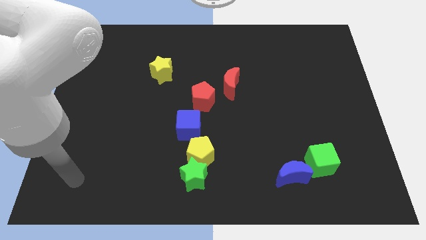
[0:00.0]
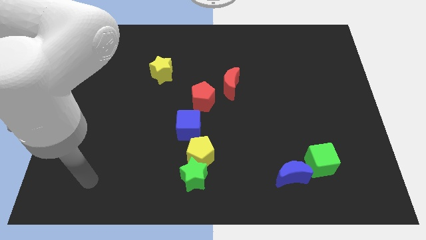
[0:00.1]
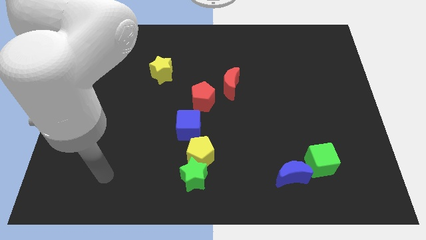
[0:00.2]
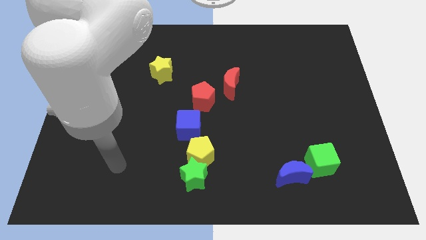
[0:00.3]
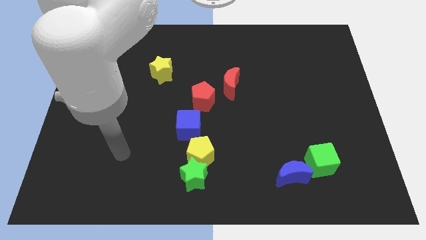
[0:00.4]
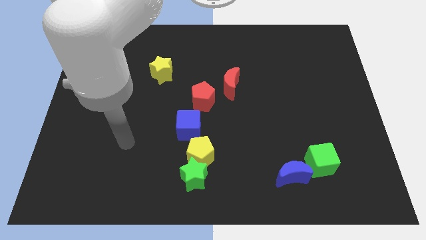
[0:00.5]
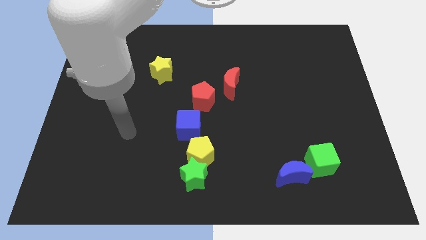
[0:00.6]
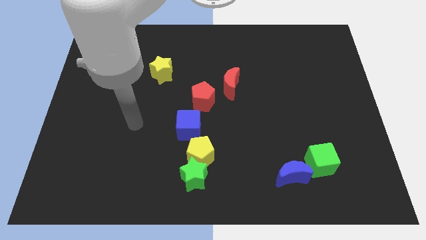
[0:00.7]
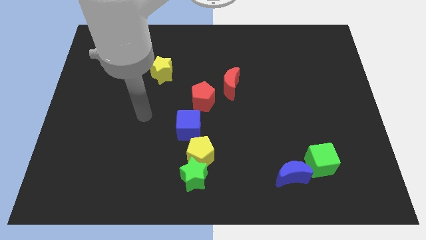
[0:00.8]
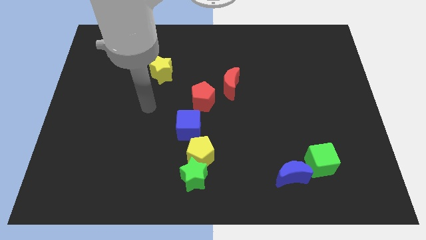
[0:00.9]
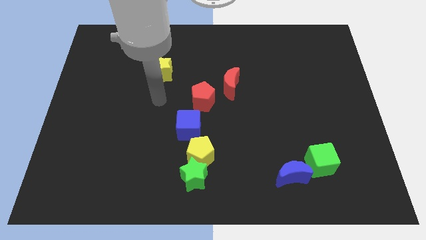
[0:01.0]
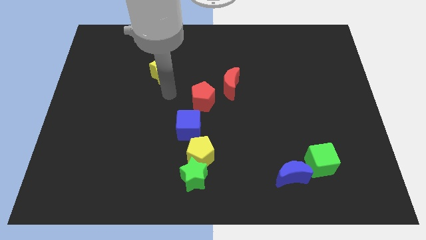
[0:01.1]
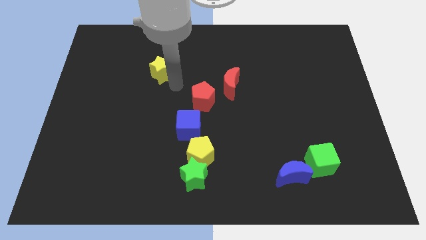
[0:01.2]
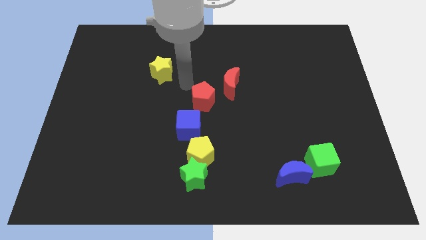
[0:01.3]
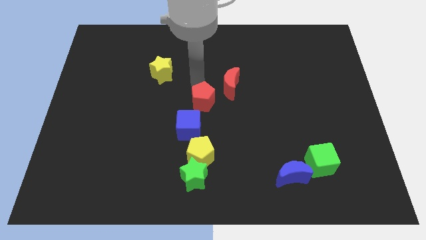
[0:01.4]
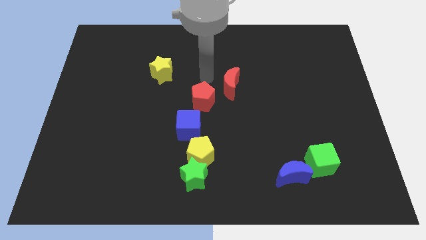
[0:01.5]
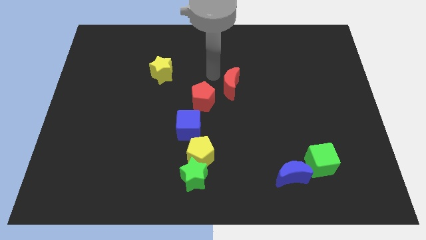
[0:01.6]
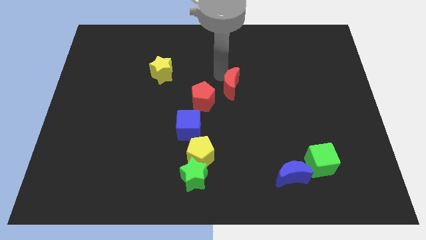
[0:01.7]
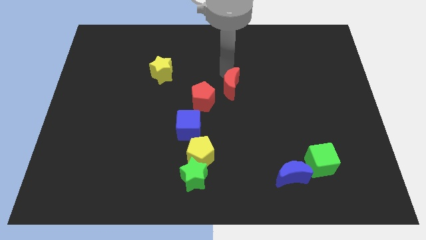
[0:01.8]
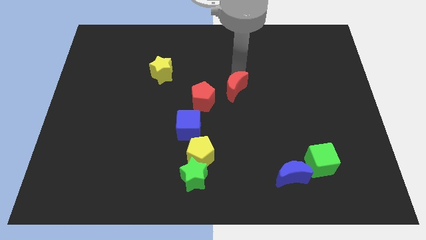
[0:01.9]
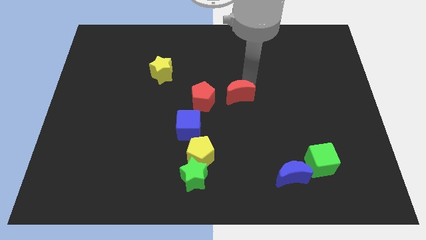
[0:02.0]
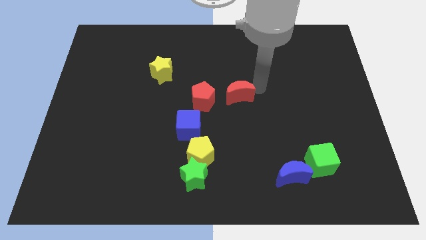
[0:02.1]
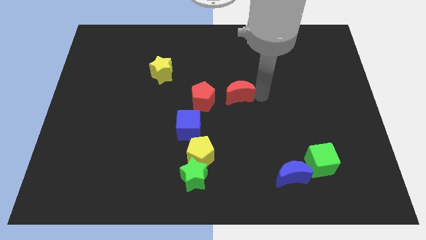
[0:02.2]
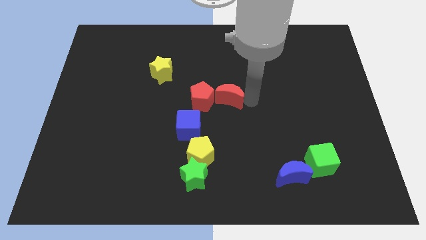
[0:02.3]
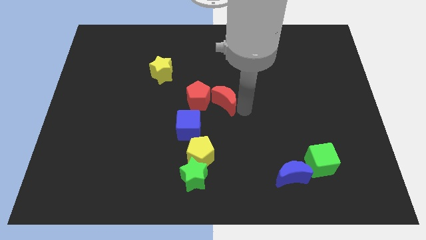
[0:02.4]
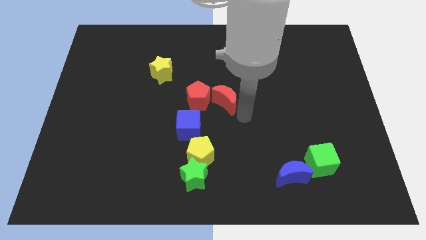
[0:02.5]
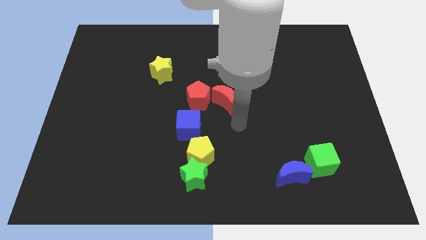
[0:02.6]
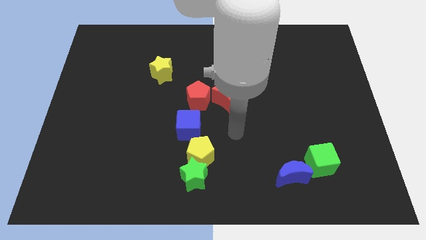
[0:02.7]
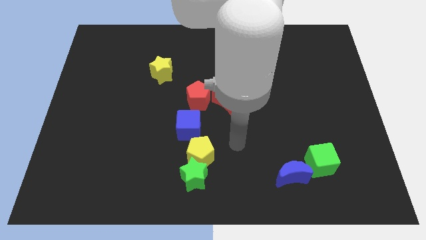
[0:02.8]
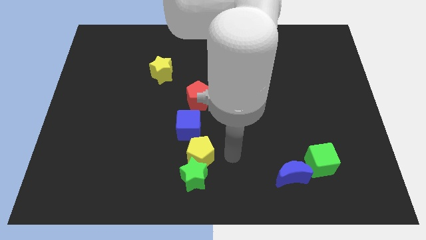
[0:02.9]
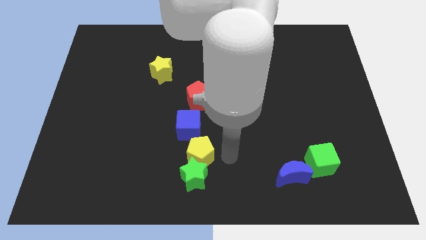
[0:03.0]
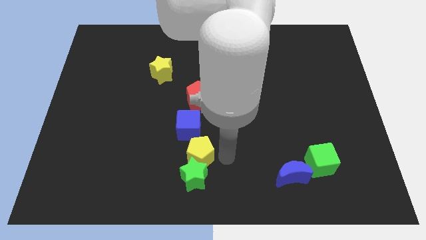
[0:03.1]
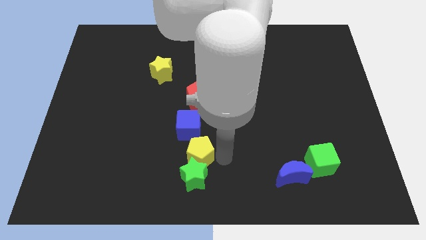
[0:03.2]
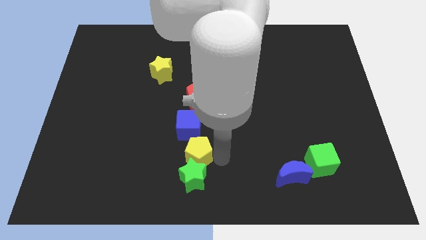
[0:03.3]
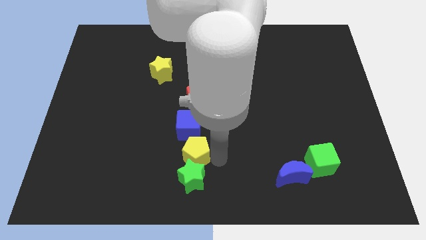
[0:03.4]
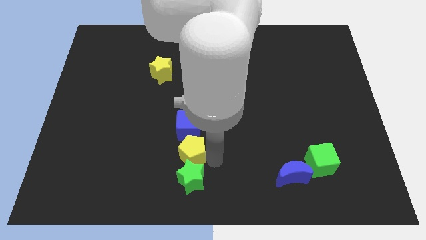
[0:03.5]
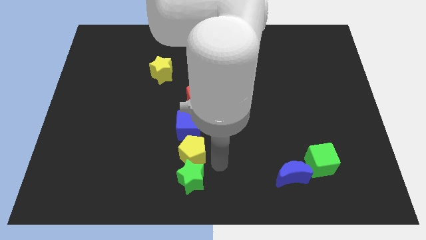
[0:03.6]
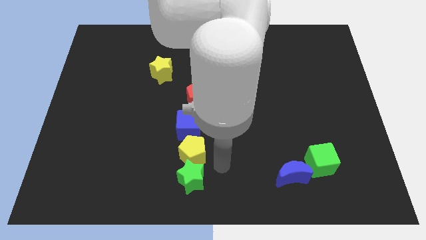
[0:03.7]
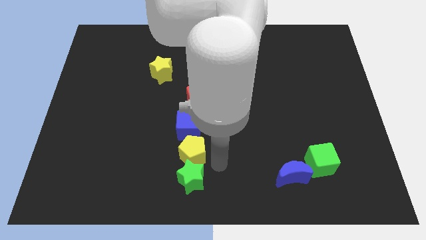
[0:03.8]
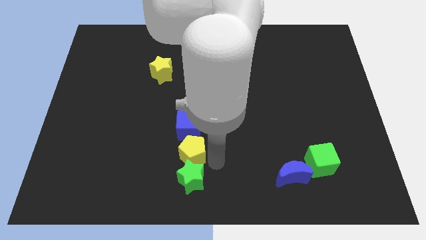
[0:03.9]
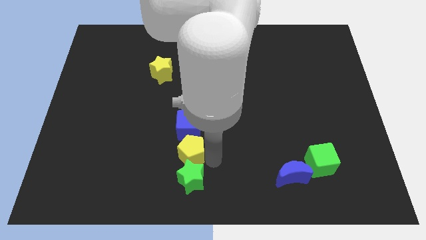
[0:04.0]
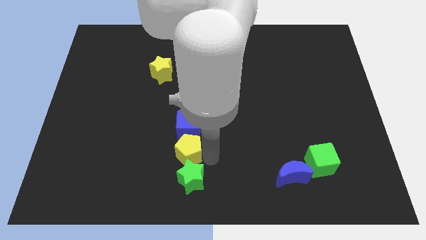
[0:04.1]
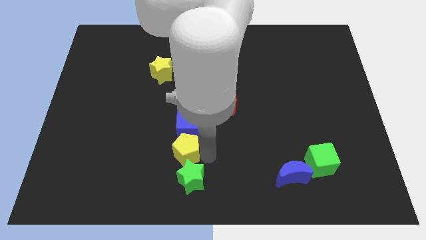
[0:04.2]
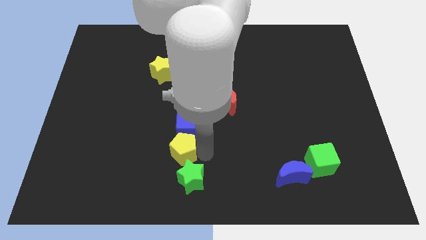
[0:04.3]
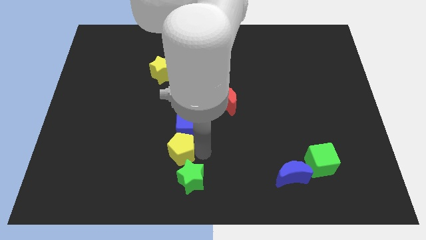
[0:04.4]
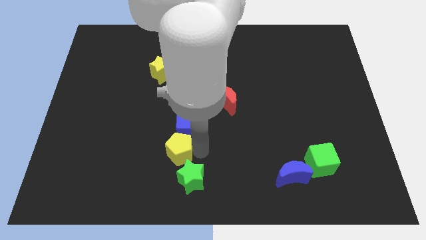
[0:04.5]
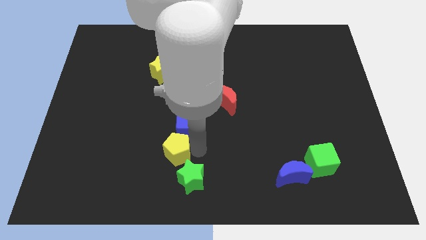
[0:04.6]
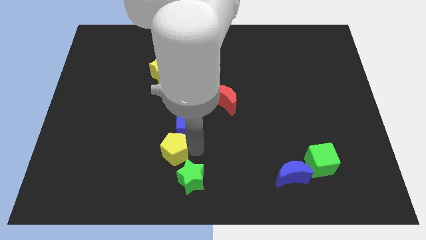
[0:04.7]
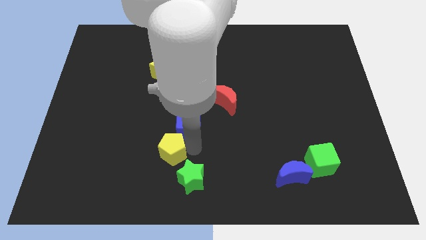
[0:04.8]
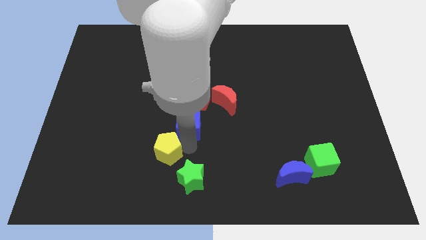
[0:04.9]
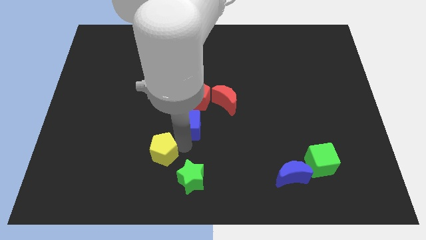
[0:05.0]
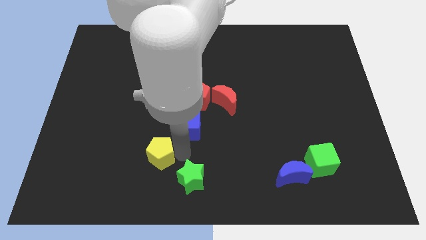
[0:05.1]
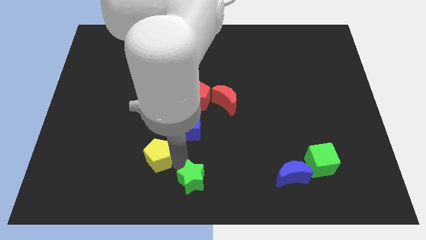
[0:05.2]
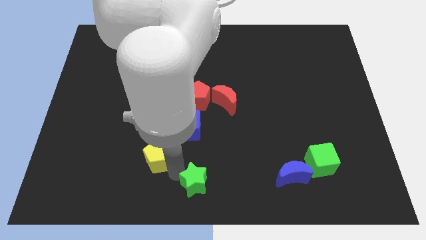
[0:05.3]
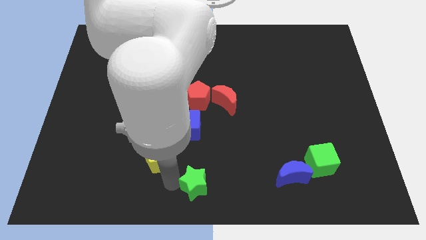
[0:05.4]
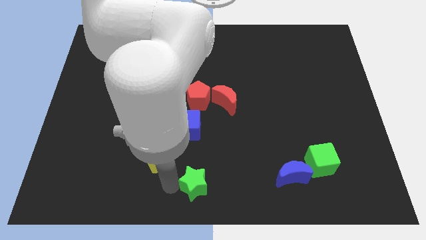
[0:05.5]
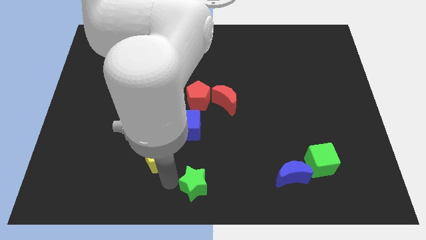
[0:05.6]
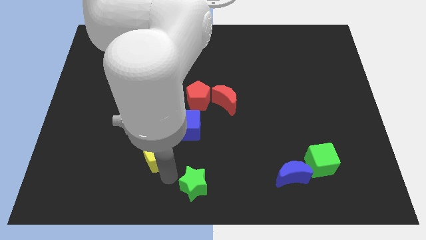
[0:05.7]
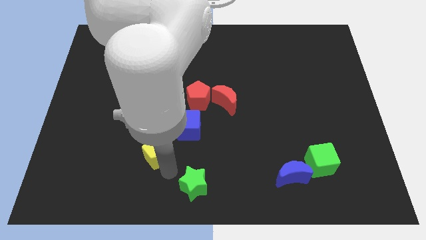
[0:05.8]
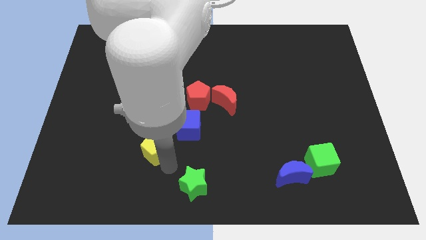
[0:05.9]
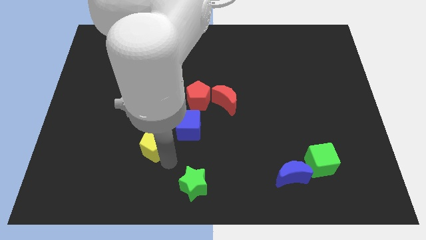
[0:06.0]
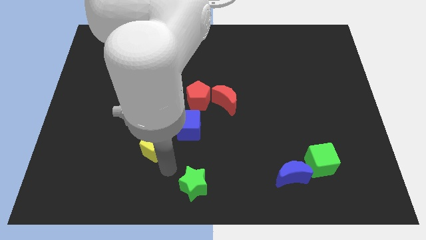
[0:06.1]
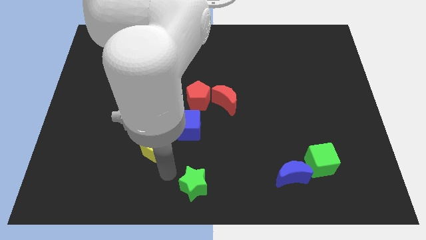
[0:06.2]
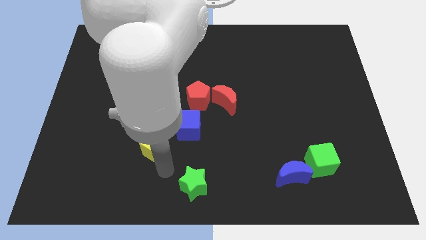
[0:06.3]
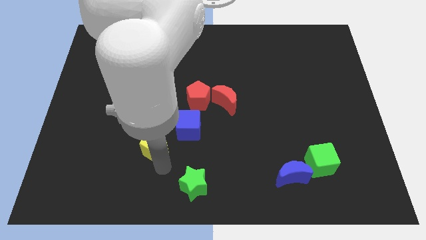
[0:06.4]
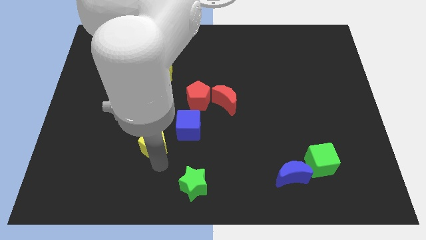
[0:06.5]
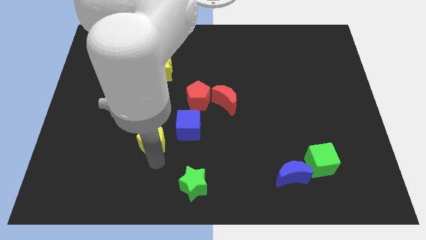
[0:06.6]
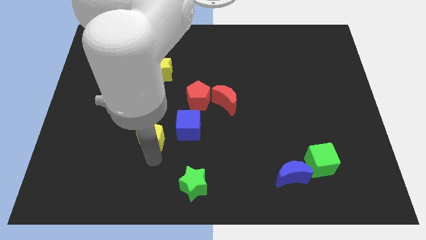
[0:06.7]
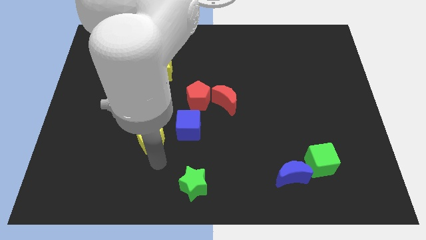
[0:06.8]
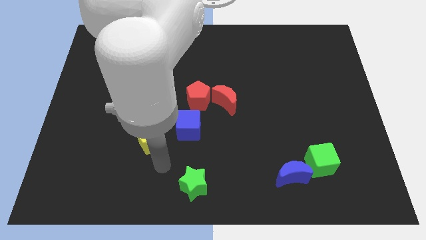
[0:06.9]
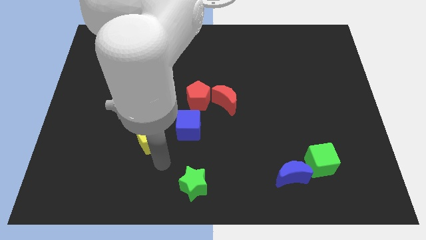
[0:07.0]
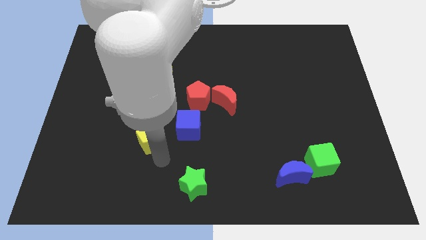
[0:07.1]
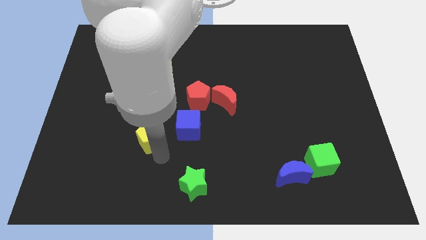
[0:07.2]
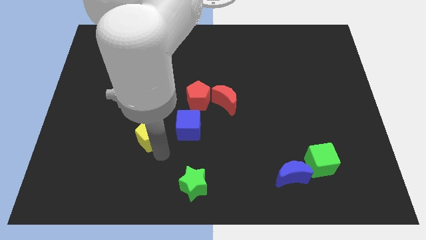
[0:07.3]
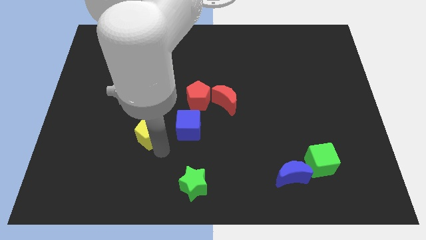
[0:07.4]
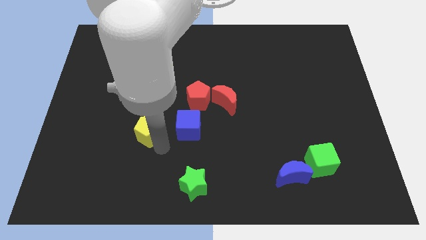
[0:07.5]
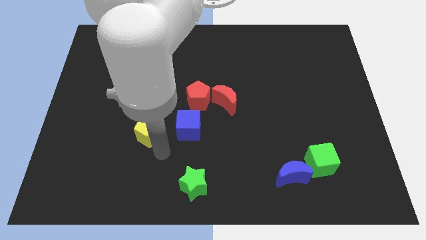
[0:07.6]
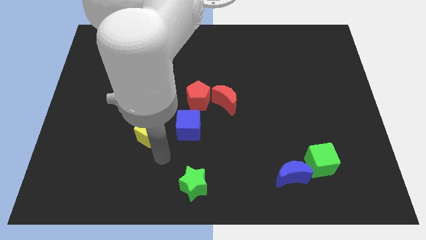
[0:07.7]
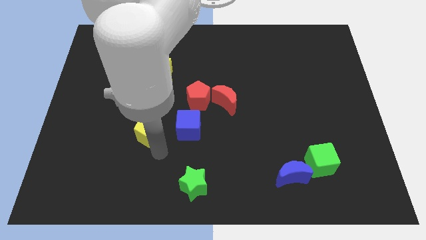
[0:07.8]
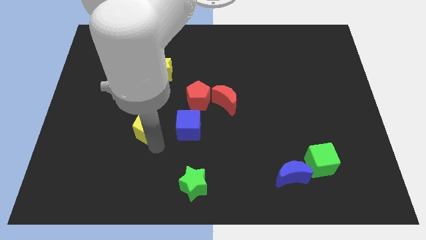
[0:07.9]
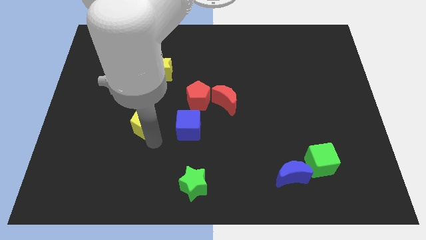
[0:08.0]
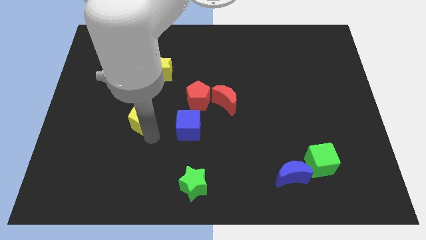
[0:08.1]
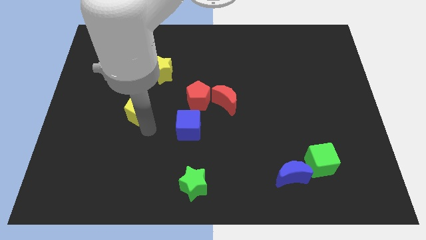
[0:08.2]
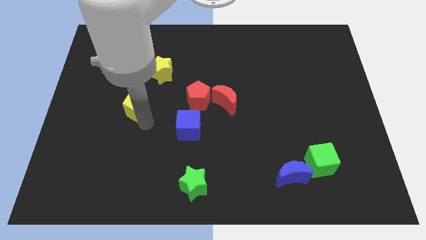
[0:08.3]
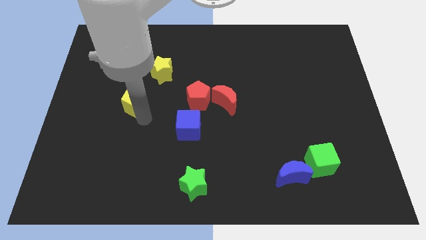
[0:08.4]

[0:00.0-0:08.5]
move the yellow pentagon upwards and left diagonally
